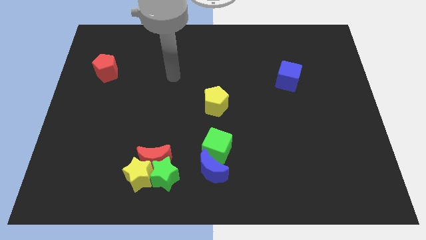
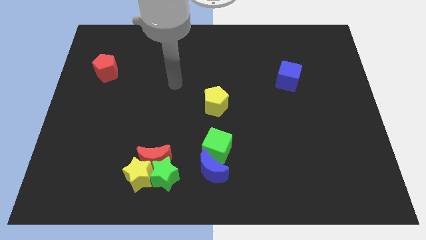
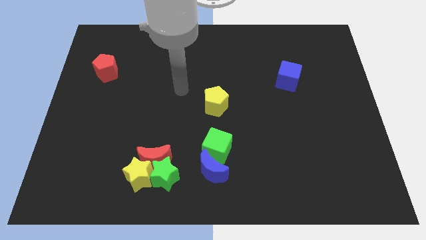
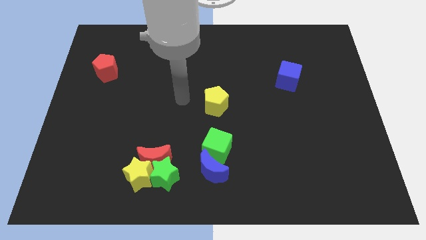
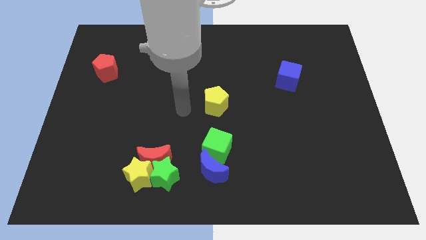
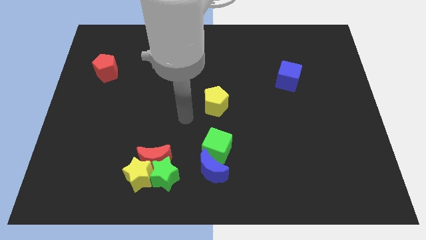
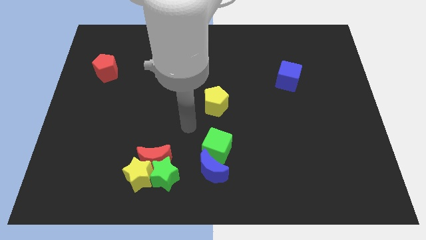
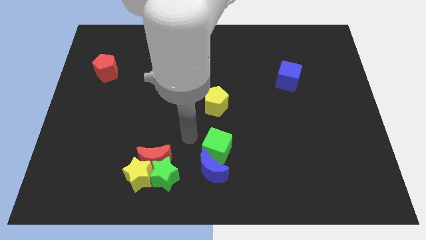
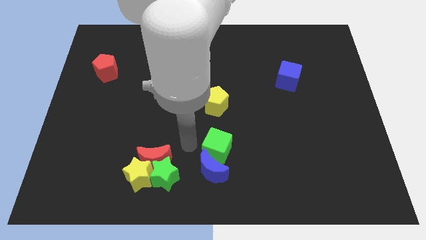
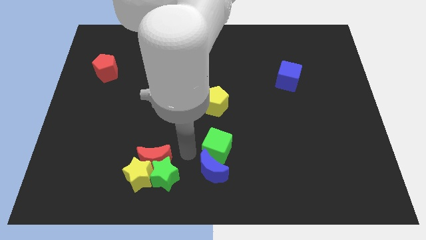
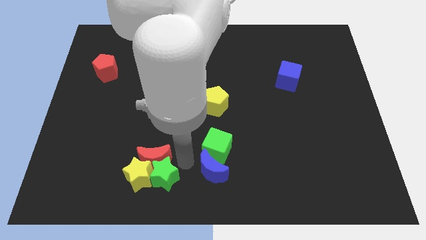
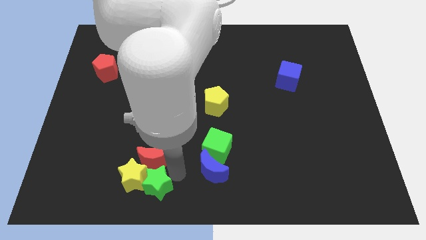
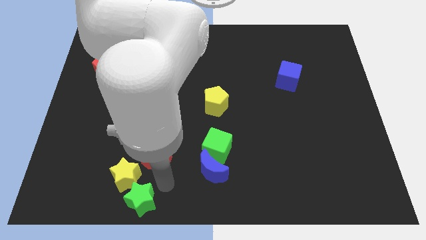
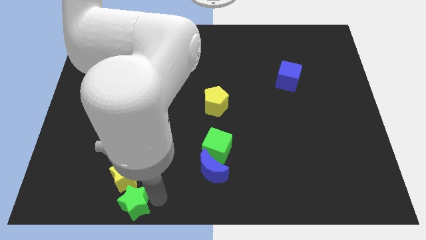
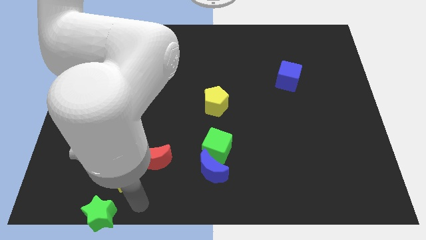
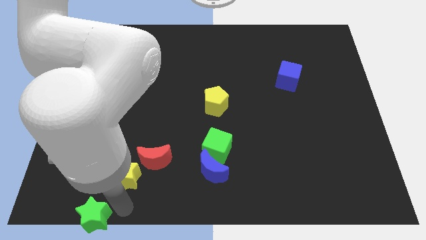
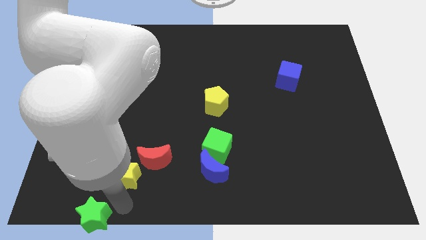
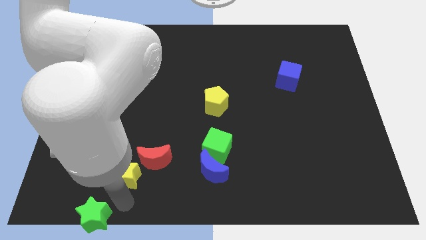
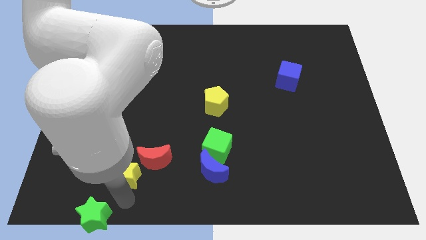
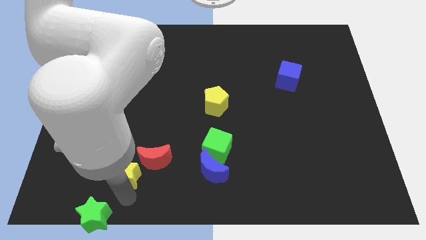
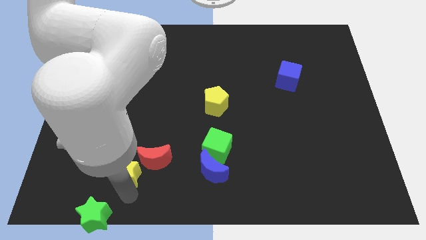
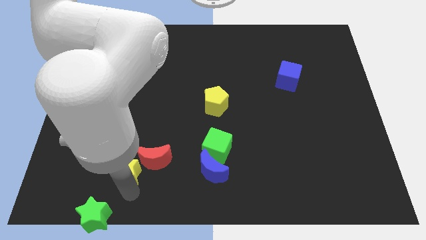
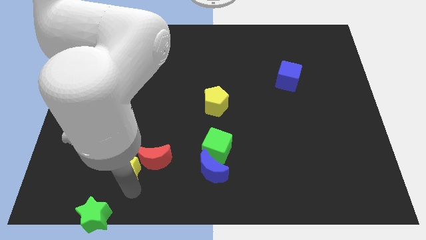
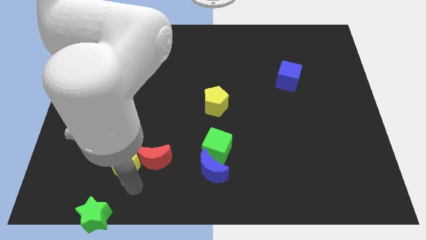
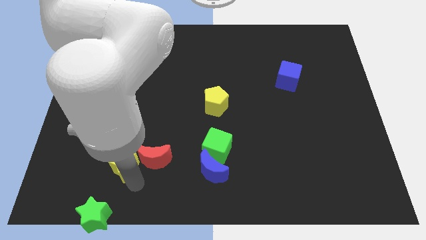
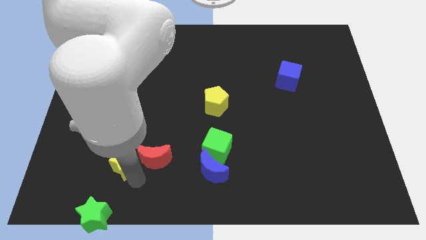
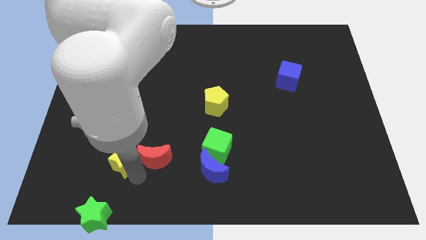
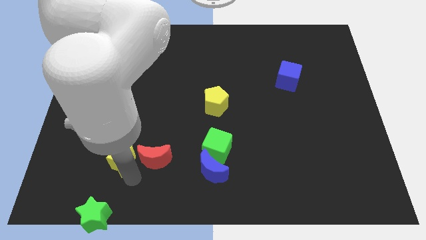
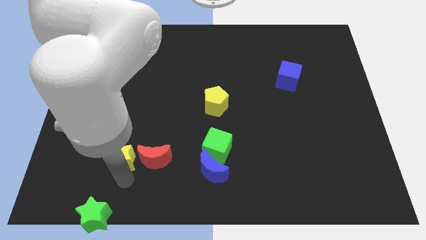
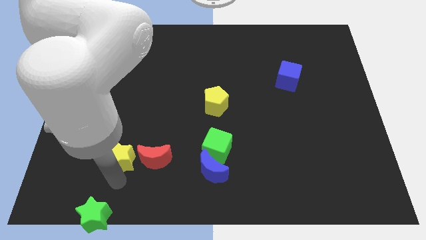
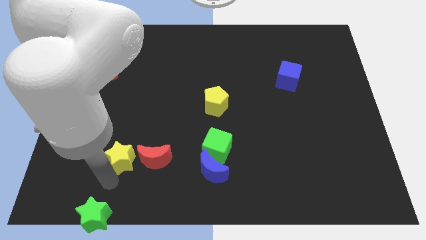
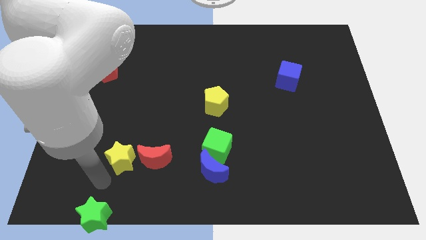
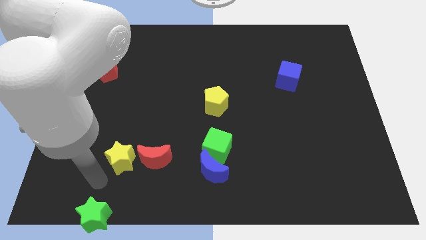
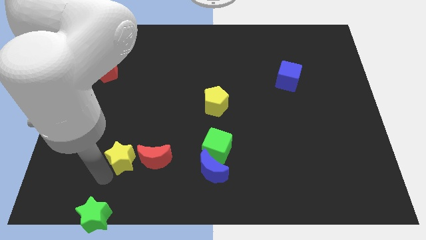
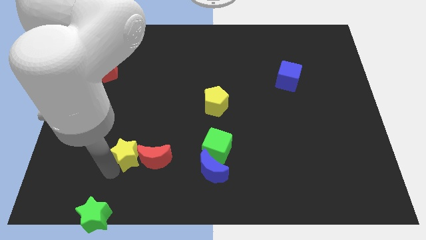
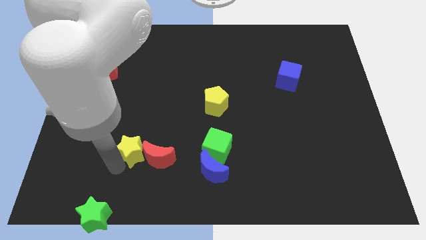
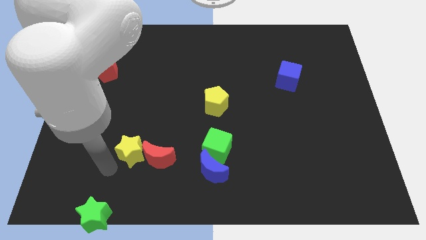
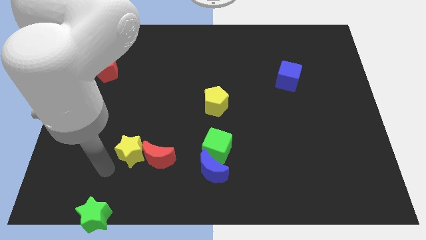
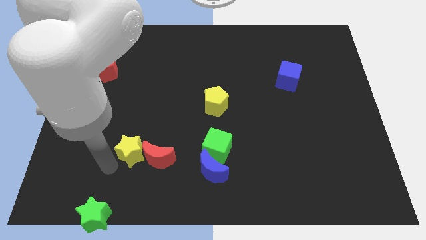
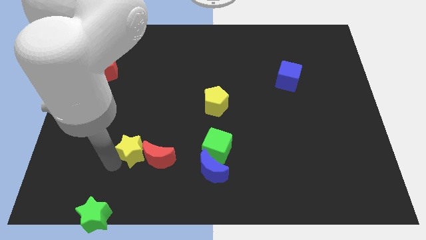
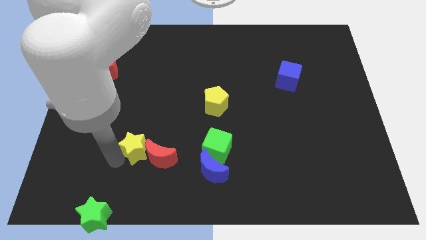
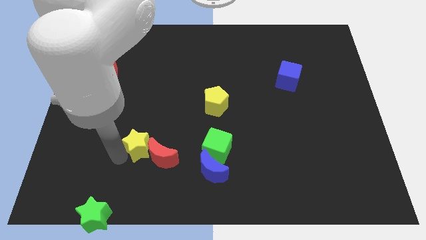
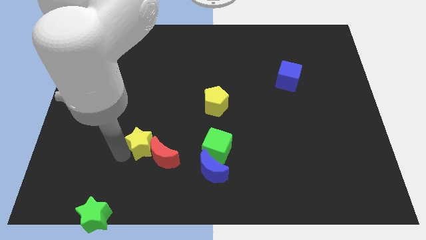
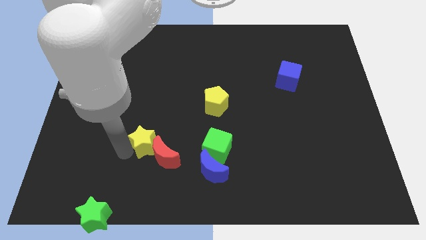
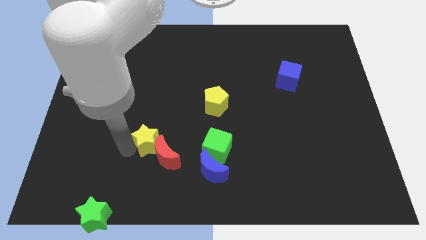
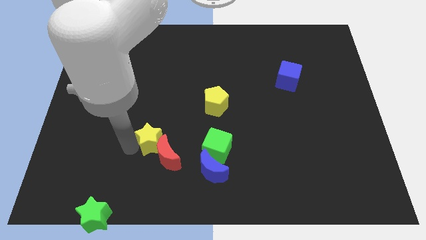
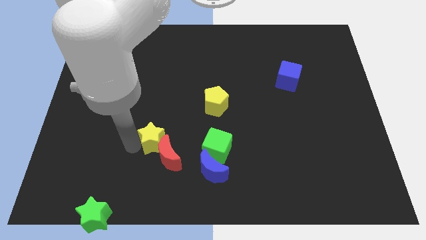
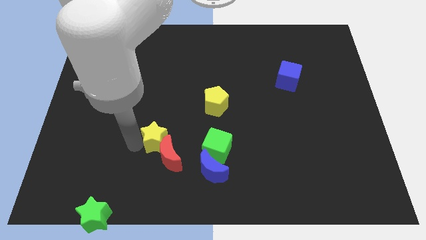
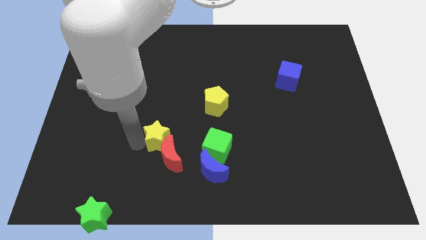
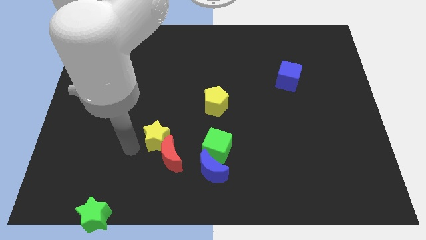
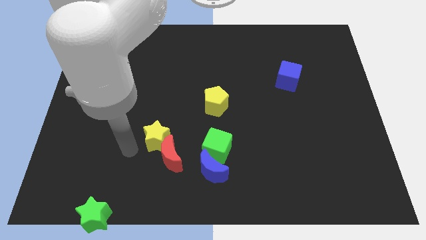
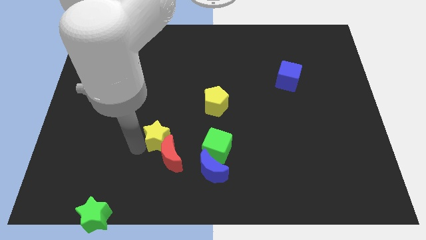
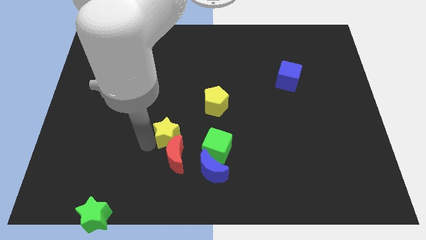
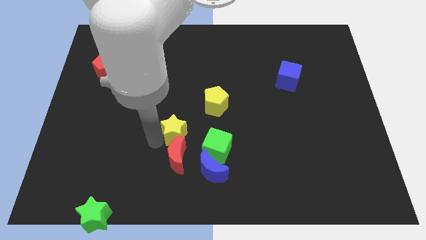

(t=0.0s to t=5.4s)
push the yellow star to the top left side of the green cube

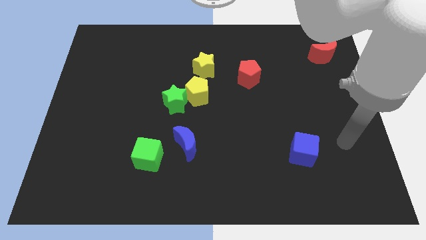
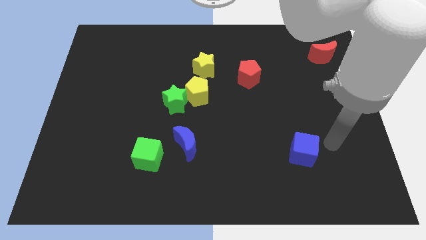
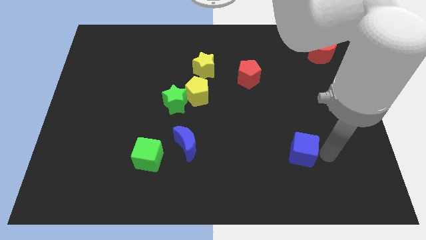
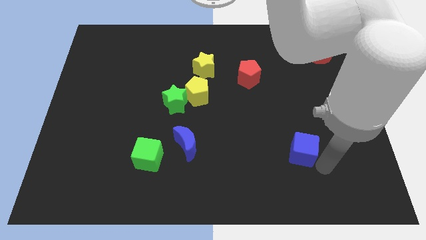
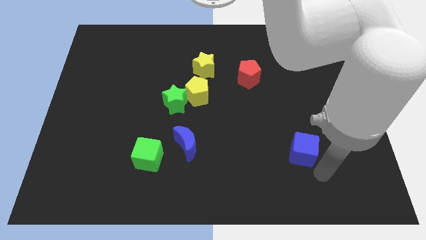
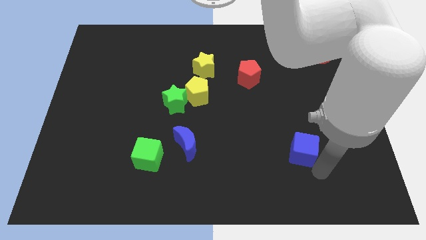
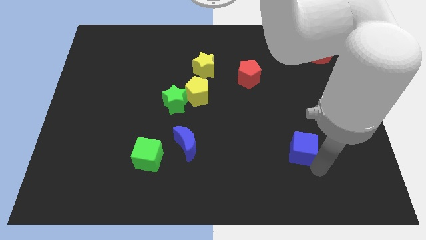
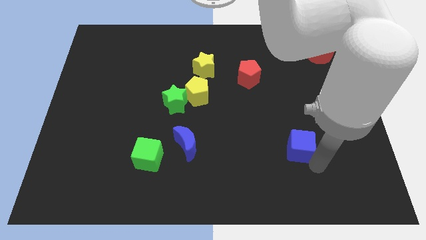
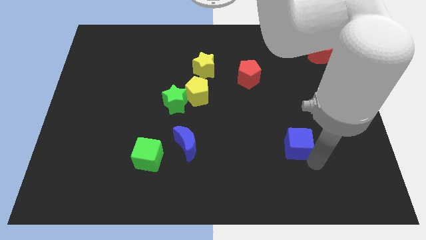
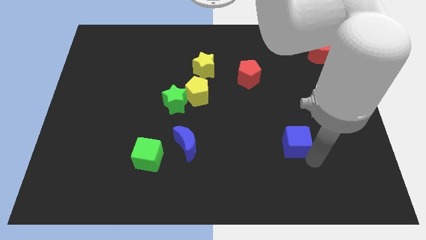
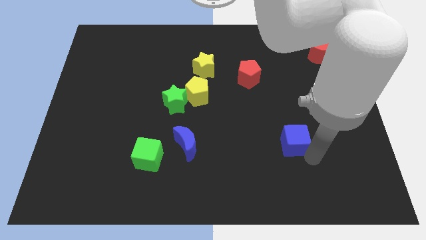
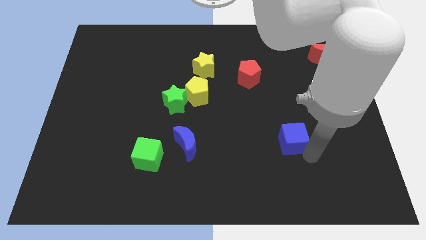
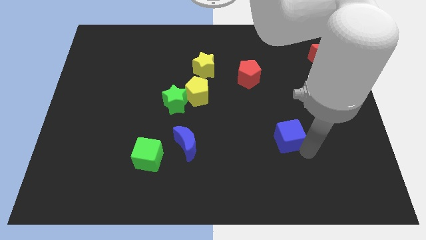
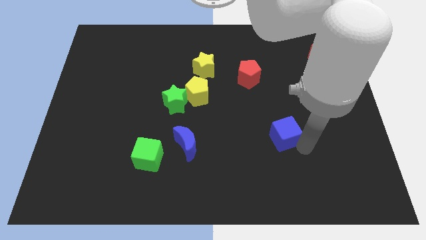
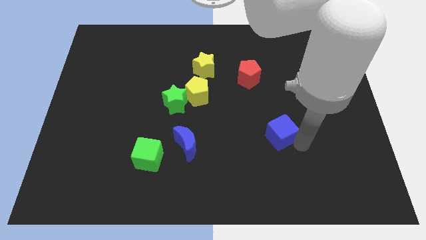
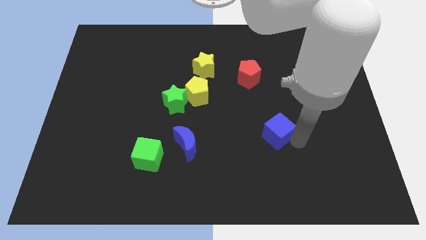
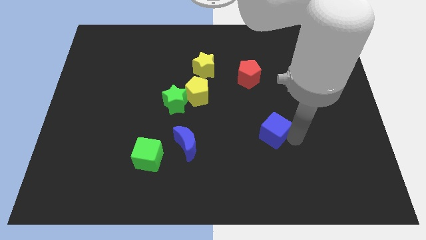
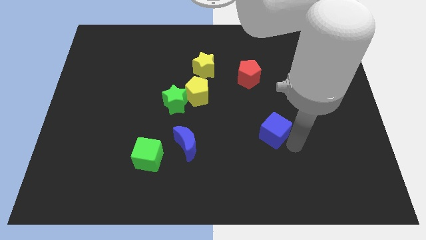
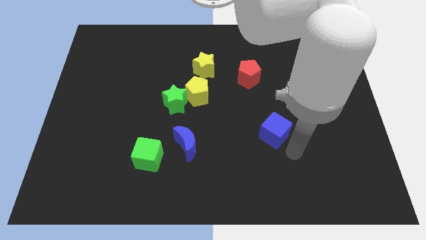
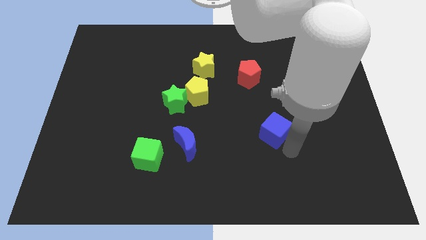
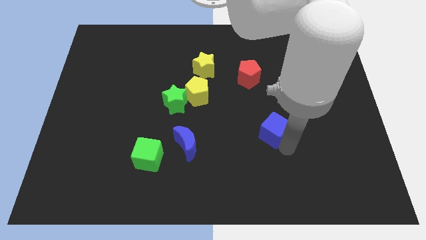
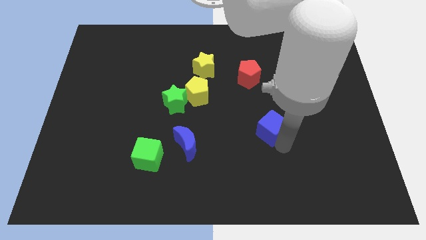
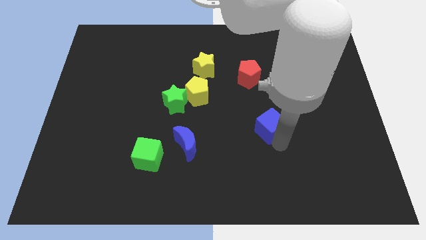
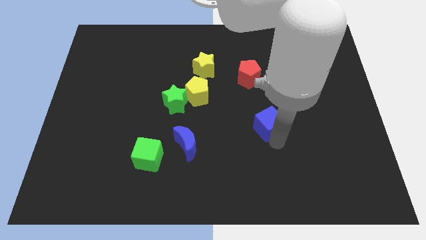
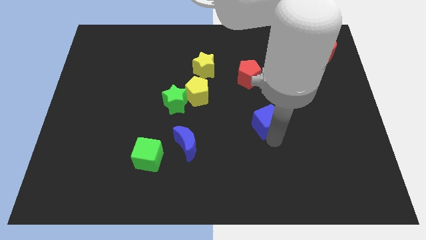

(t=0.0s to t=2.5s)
move the blue cube to the bottom side of the red pentagon
